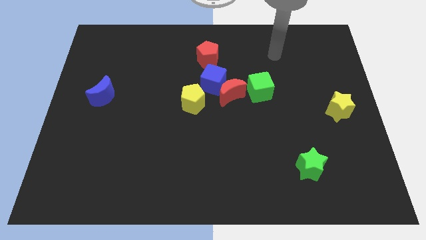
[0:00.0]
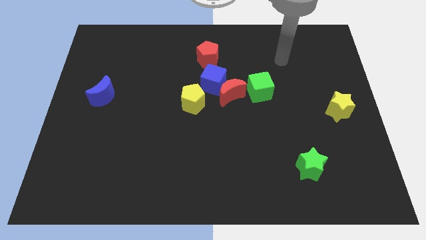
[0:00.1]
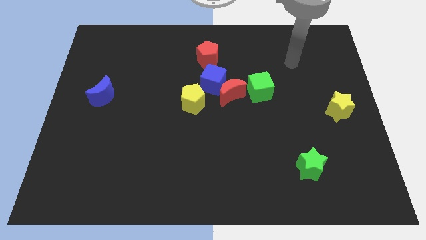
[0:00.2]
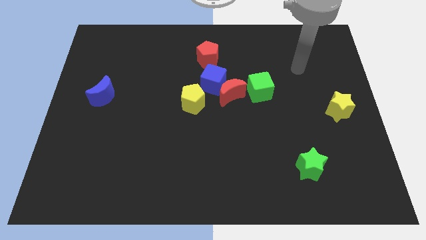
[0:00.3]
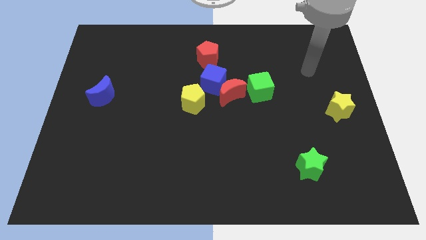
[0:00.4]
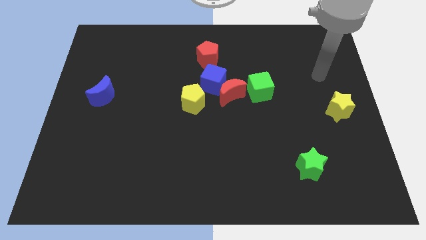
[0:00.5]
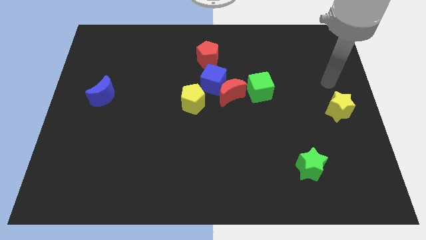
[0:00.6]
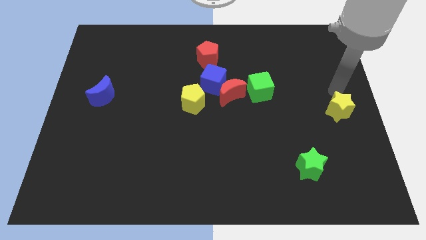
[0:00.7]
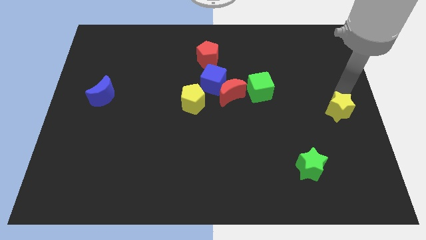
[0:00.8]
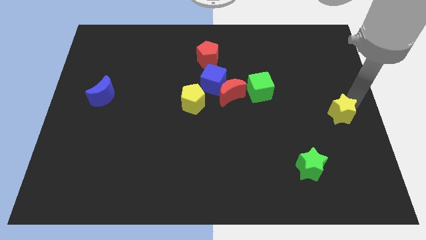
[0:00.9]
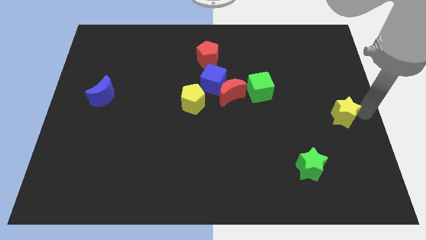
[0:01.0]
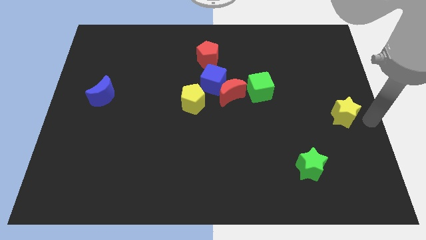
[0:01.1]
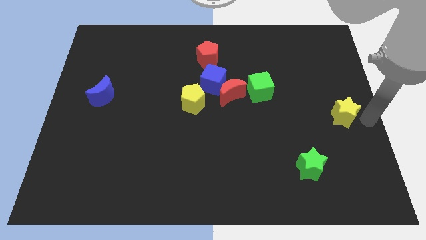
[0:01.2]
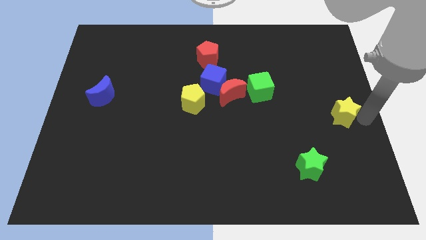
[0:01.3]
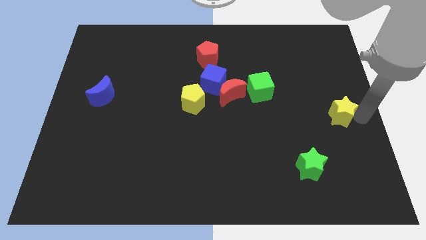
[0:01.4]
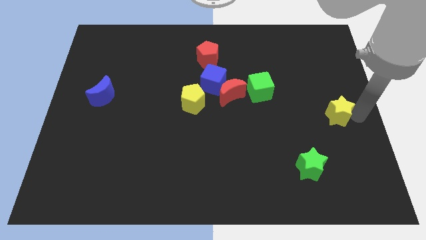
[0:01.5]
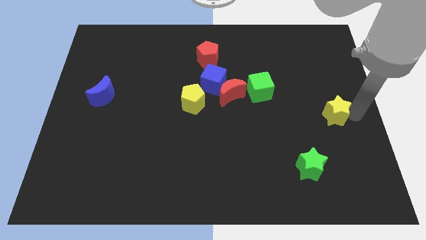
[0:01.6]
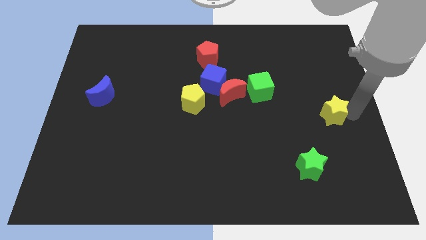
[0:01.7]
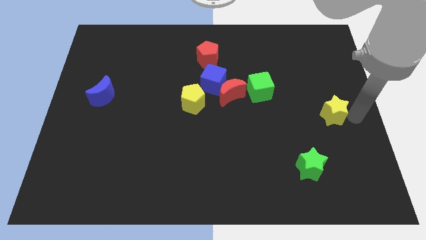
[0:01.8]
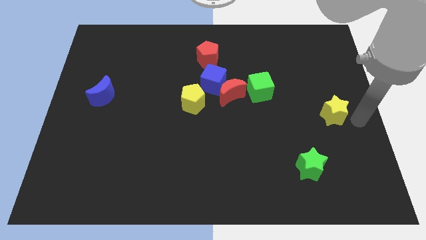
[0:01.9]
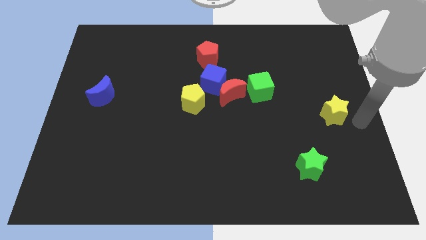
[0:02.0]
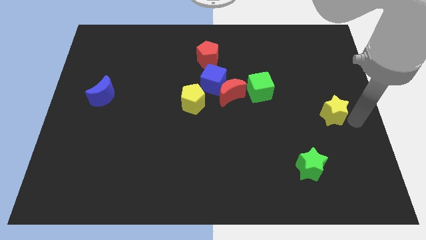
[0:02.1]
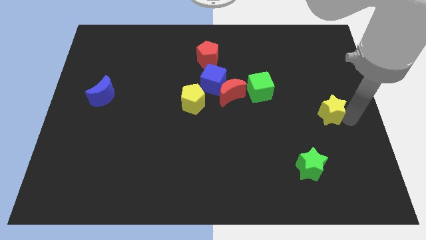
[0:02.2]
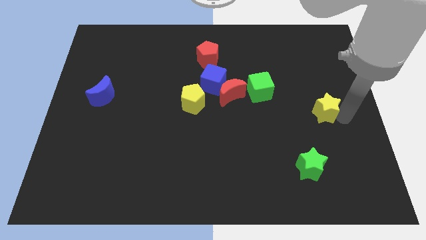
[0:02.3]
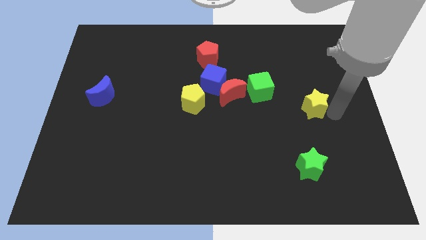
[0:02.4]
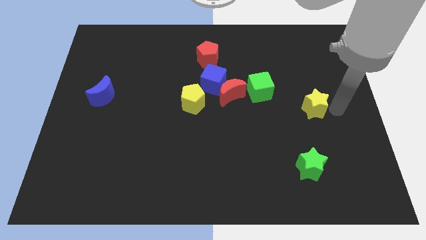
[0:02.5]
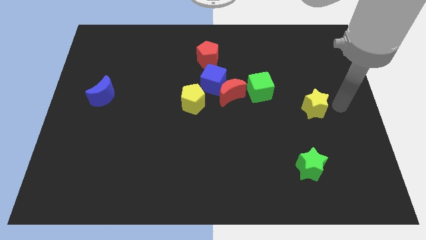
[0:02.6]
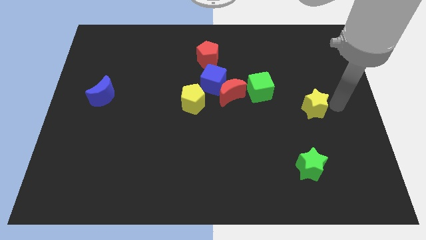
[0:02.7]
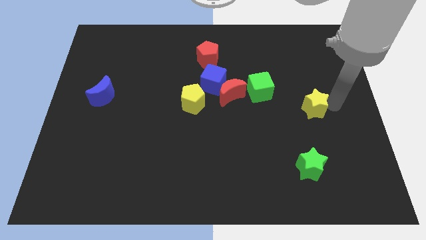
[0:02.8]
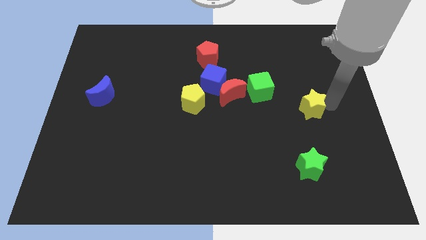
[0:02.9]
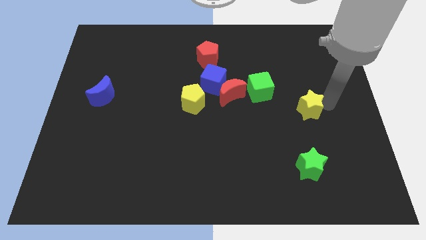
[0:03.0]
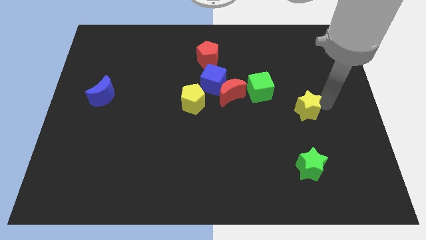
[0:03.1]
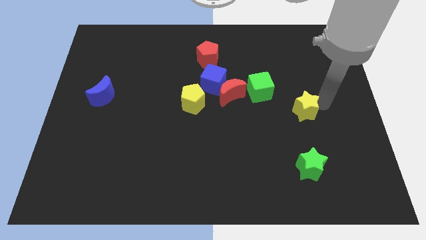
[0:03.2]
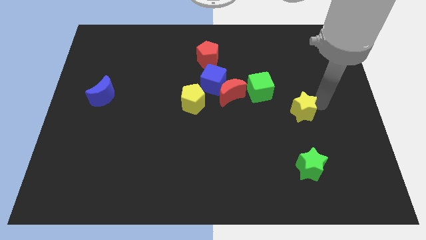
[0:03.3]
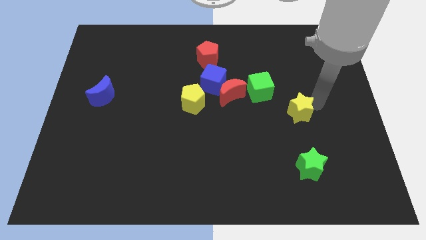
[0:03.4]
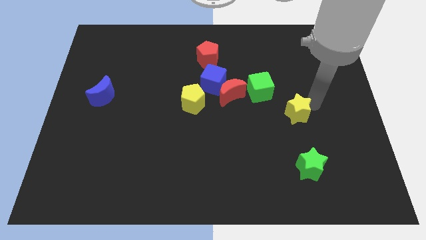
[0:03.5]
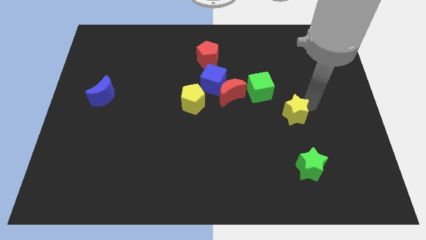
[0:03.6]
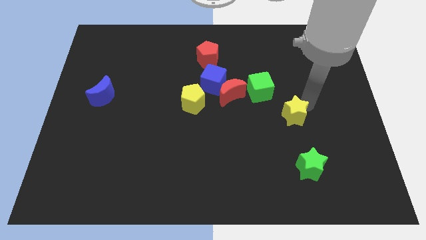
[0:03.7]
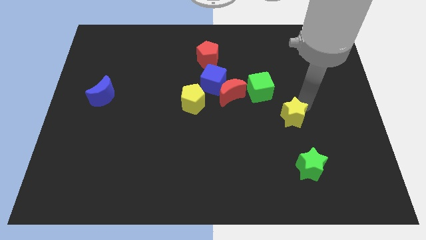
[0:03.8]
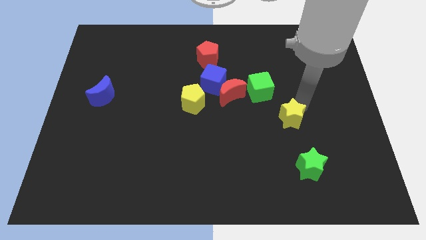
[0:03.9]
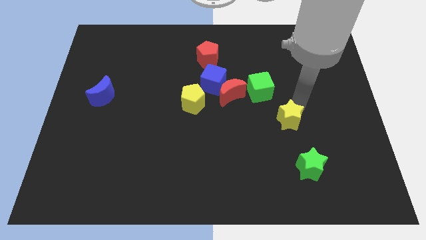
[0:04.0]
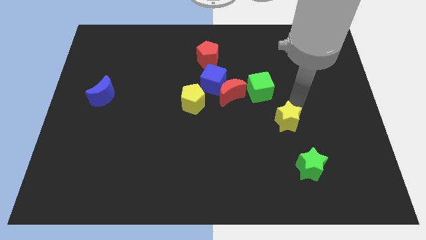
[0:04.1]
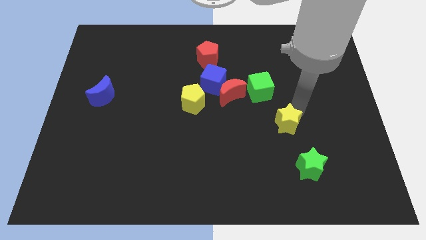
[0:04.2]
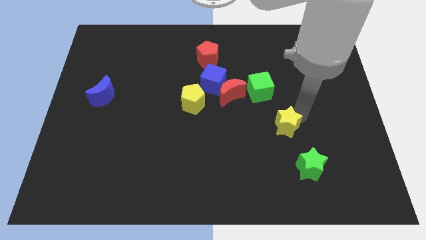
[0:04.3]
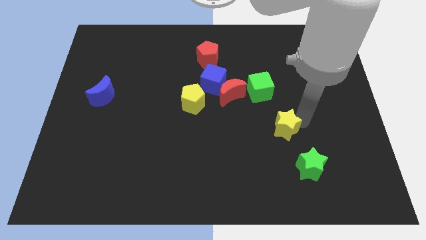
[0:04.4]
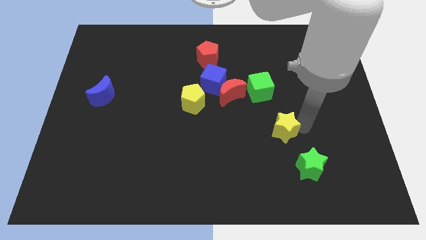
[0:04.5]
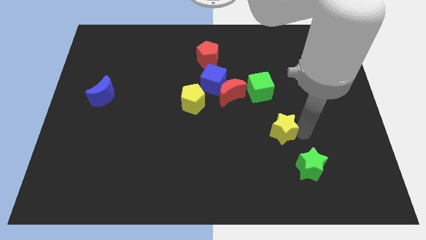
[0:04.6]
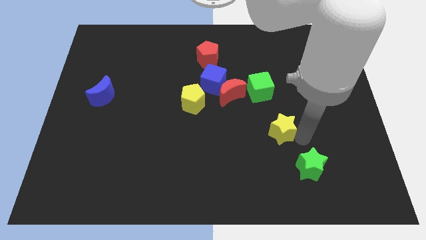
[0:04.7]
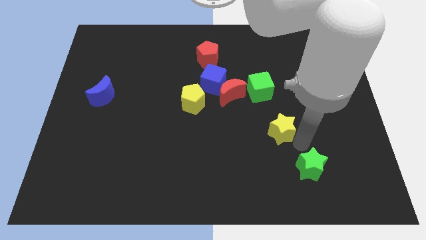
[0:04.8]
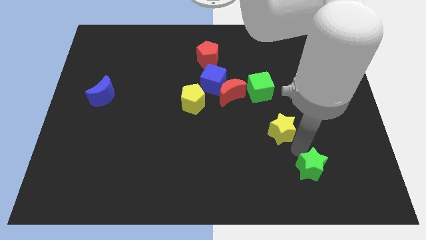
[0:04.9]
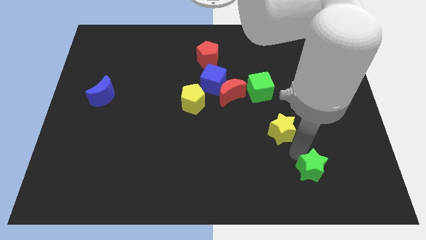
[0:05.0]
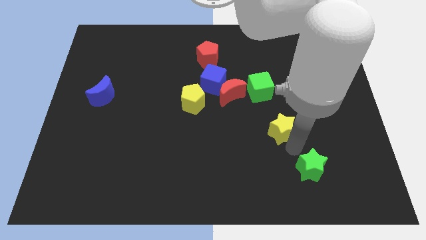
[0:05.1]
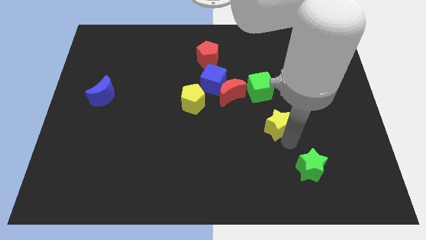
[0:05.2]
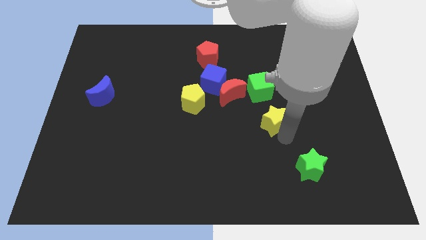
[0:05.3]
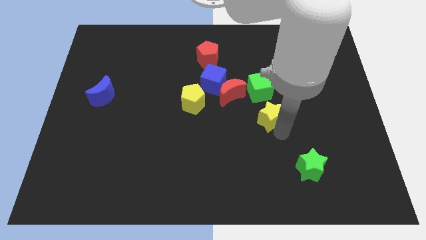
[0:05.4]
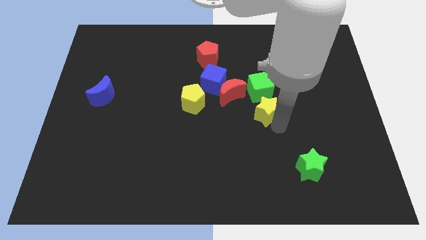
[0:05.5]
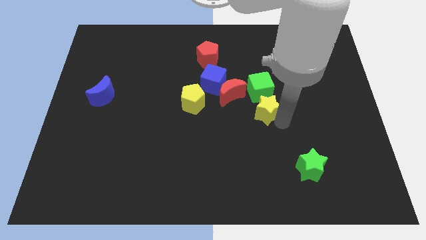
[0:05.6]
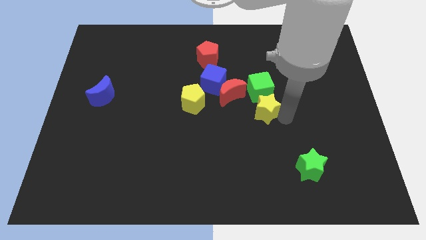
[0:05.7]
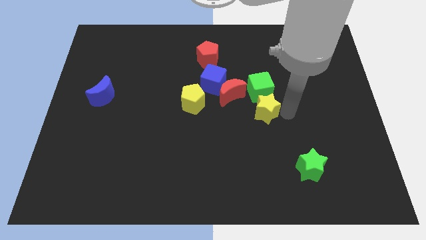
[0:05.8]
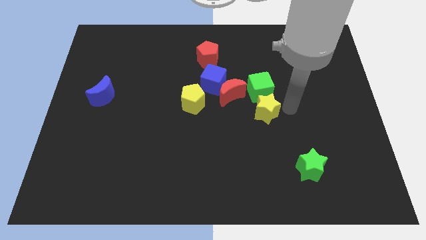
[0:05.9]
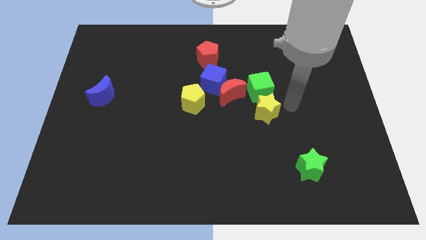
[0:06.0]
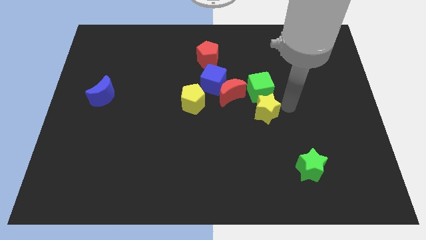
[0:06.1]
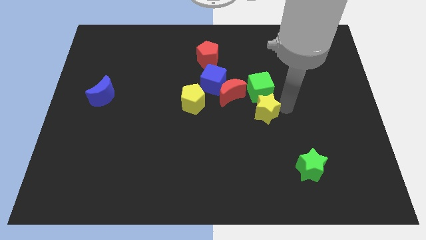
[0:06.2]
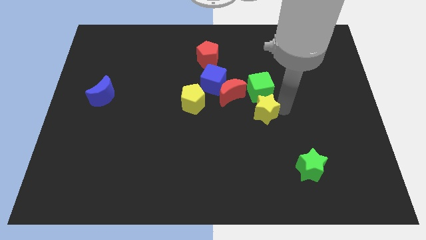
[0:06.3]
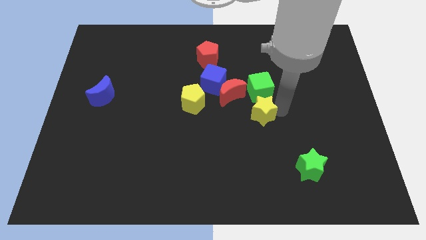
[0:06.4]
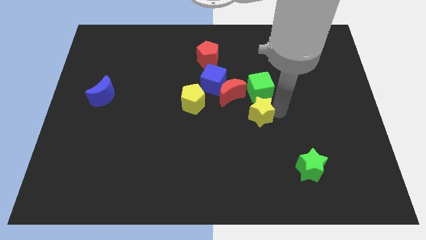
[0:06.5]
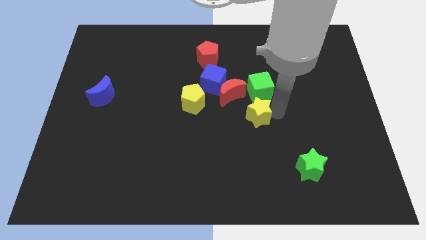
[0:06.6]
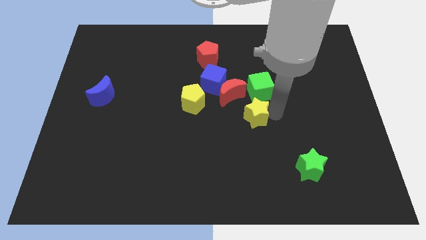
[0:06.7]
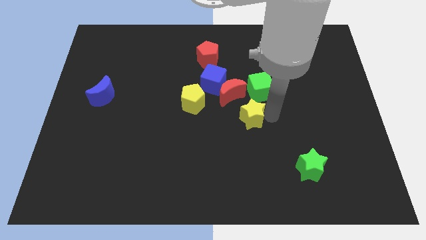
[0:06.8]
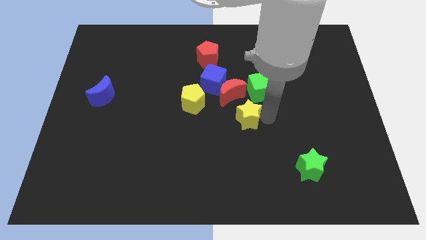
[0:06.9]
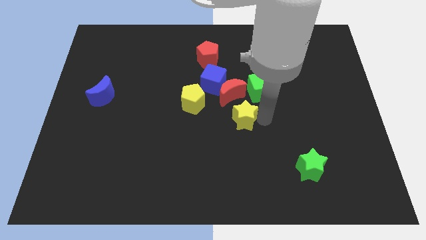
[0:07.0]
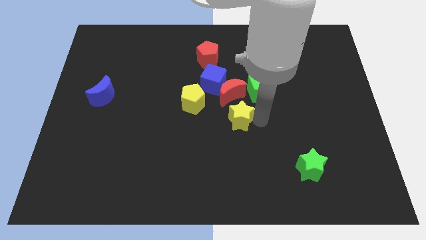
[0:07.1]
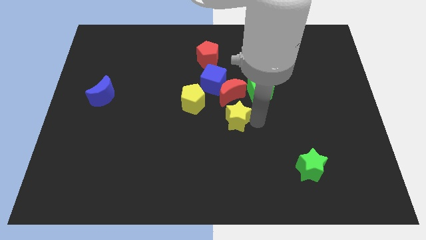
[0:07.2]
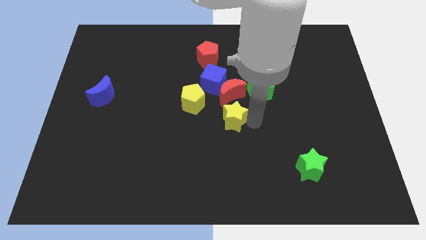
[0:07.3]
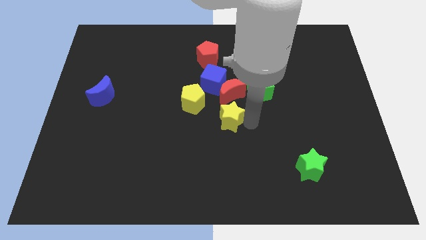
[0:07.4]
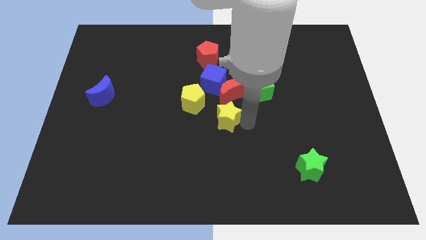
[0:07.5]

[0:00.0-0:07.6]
slide the yellow star to the bottom left of the red moon
